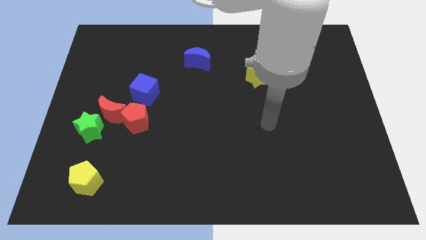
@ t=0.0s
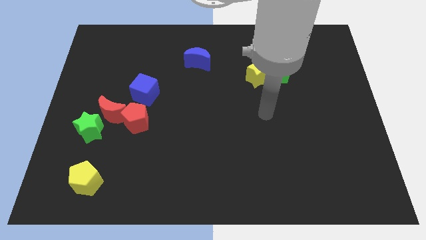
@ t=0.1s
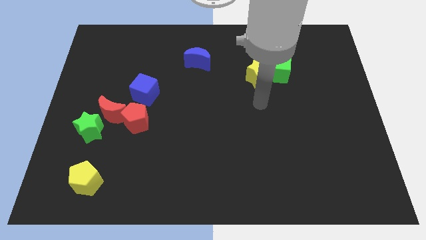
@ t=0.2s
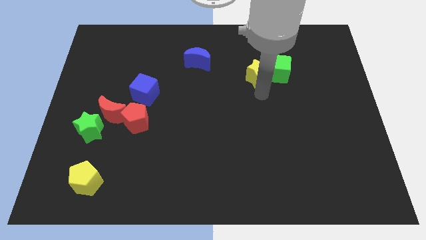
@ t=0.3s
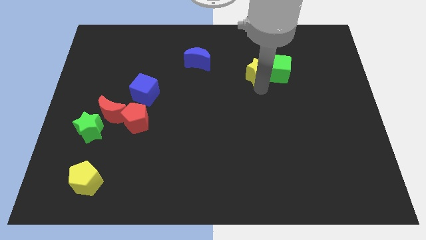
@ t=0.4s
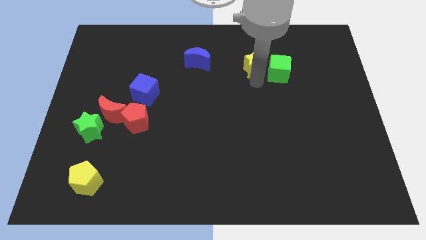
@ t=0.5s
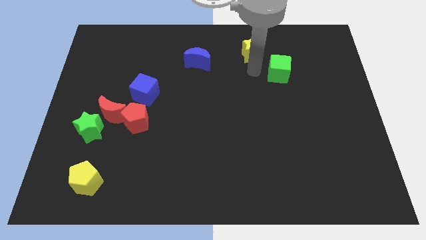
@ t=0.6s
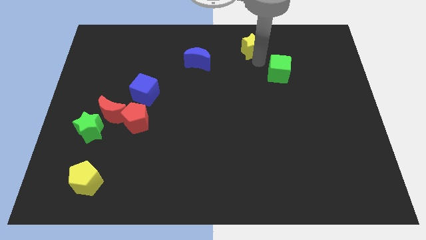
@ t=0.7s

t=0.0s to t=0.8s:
move the green cube away from the yellow star

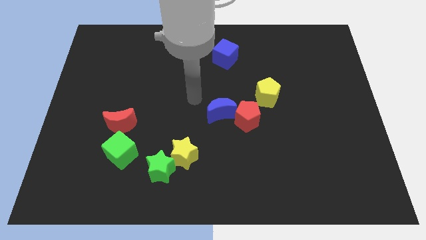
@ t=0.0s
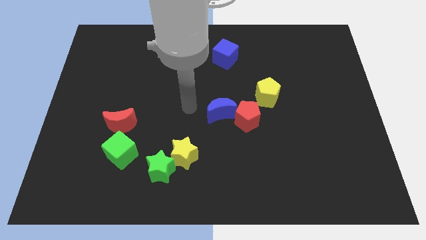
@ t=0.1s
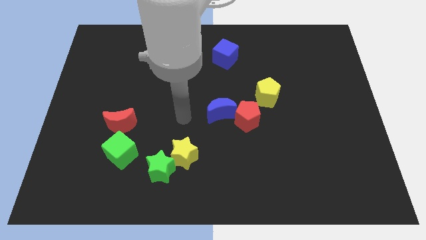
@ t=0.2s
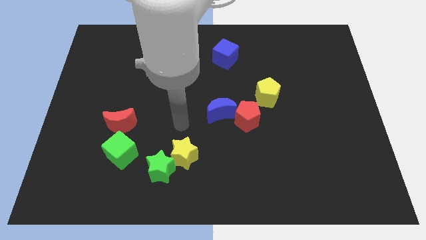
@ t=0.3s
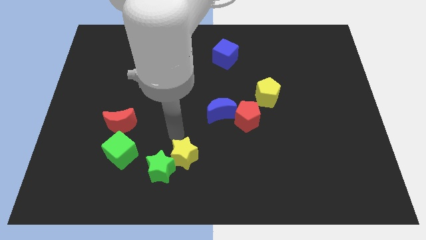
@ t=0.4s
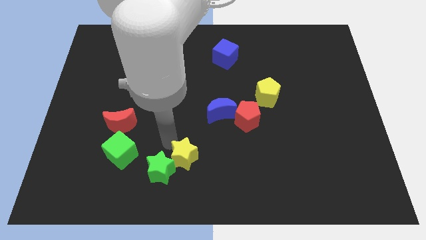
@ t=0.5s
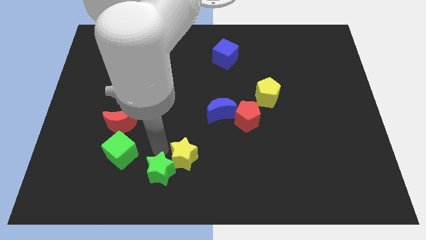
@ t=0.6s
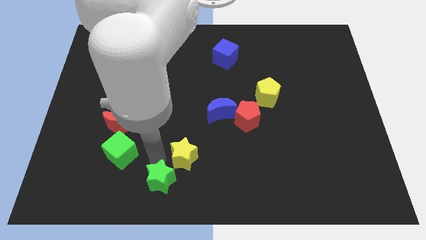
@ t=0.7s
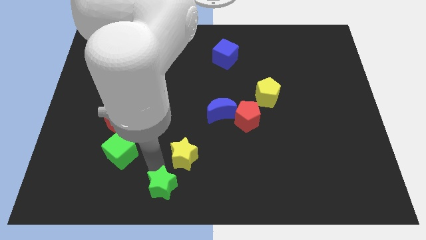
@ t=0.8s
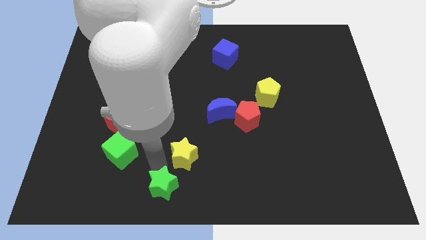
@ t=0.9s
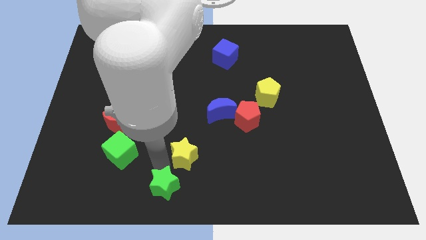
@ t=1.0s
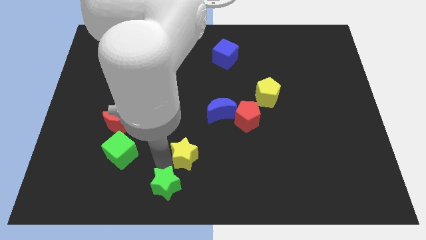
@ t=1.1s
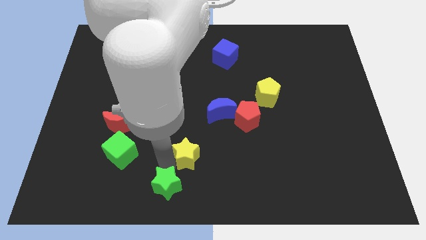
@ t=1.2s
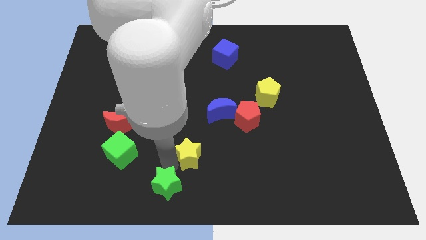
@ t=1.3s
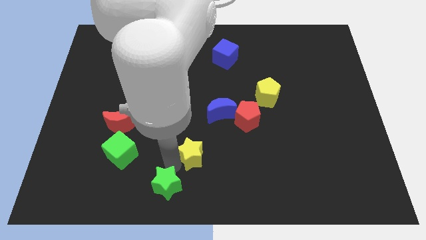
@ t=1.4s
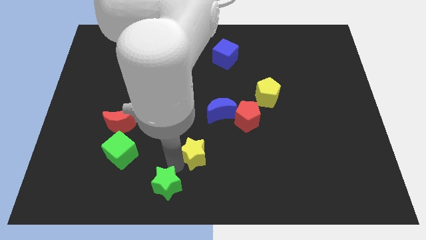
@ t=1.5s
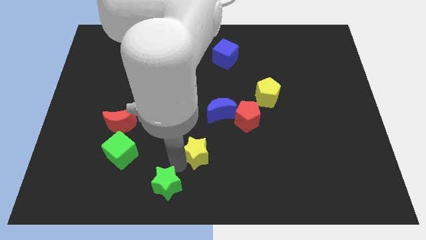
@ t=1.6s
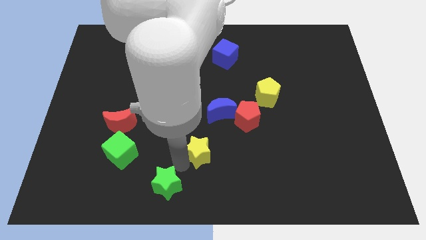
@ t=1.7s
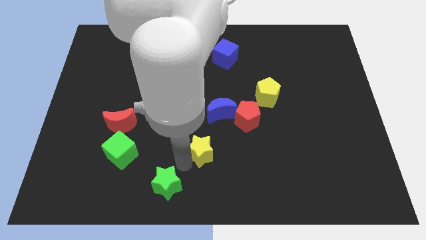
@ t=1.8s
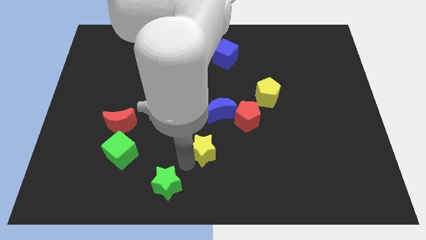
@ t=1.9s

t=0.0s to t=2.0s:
separate the yellow star from the green star

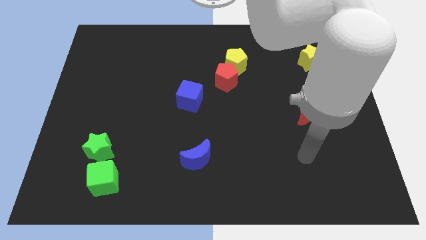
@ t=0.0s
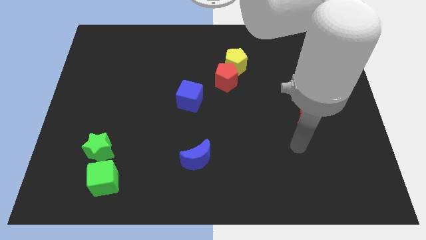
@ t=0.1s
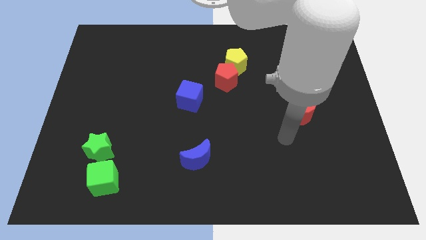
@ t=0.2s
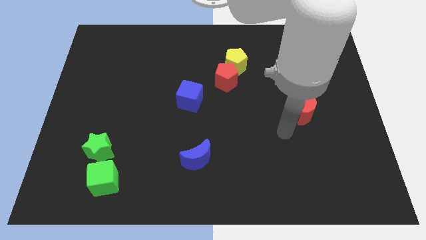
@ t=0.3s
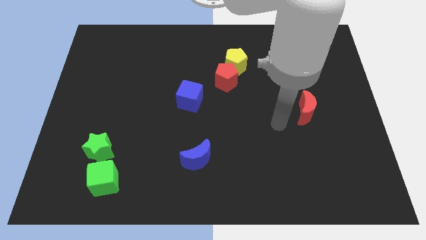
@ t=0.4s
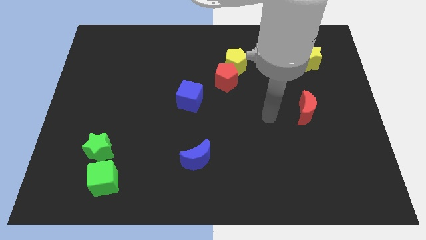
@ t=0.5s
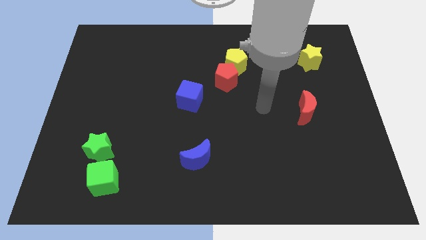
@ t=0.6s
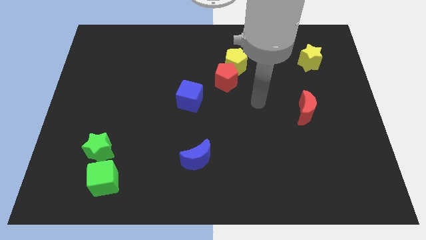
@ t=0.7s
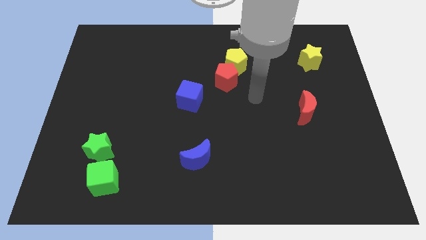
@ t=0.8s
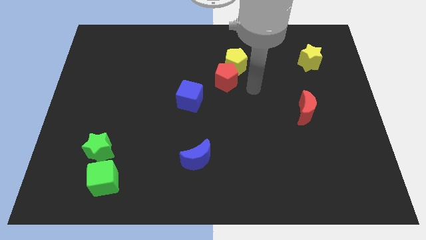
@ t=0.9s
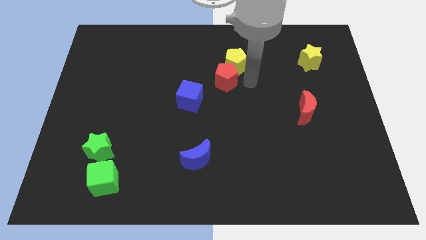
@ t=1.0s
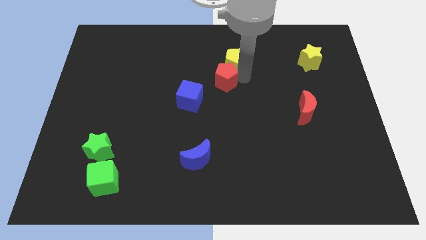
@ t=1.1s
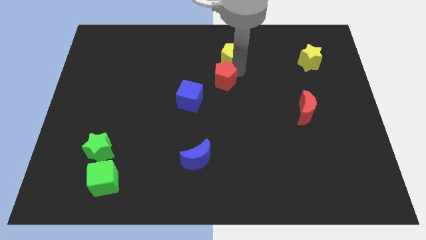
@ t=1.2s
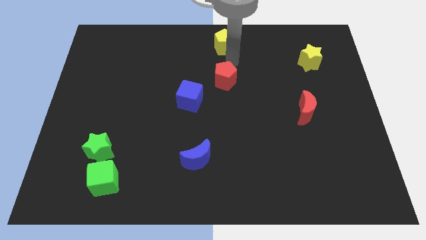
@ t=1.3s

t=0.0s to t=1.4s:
pull the red pentagon apart from the yellow pentagon

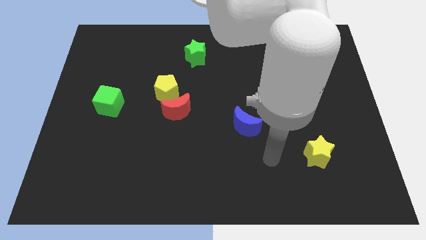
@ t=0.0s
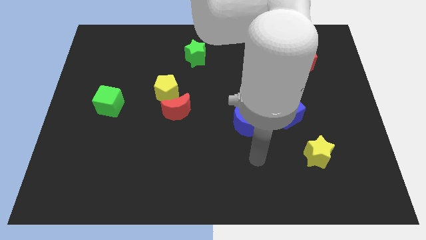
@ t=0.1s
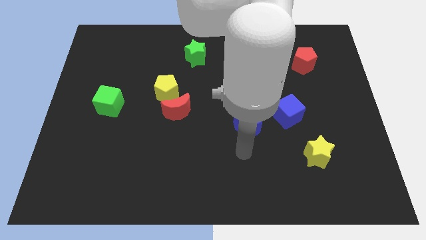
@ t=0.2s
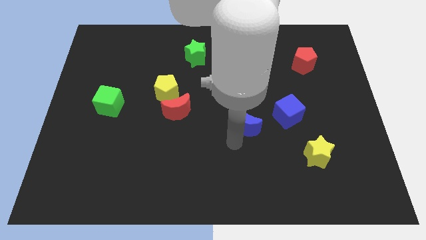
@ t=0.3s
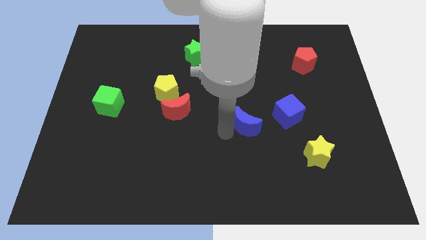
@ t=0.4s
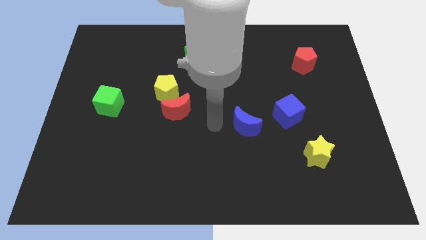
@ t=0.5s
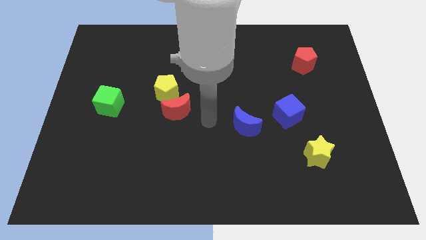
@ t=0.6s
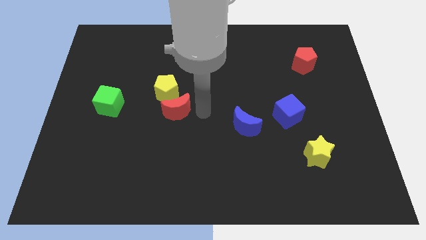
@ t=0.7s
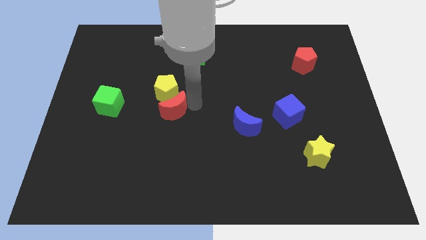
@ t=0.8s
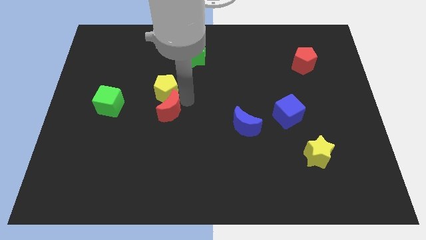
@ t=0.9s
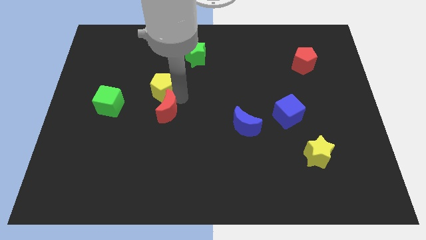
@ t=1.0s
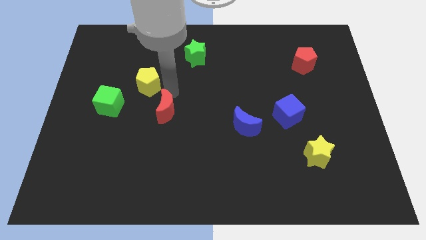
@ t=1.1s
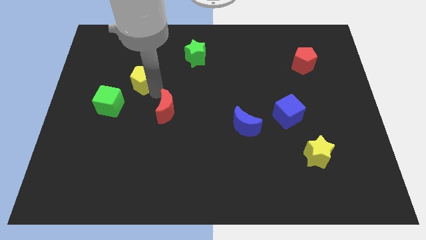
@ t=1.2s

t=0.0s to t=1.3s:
pull the red moon apart from the yellow pentagon

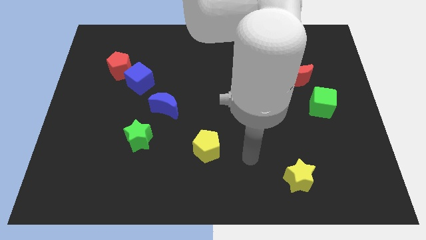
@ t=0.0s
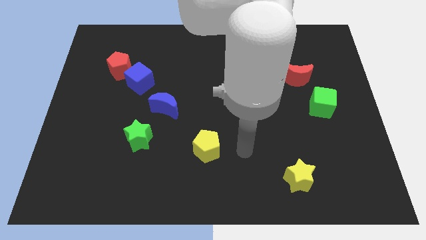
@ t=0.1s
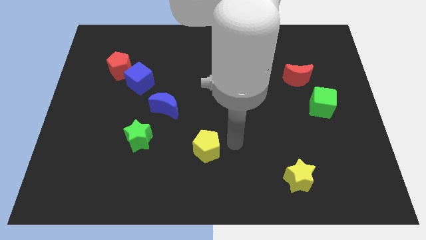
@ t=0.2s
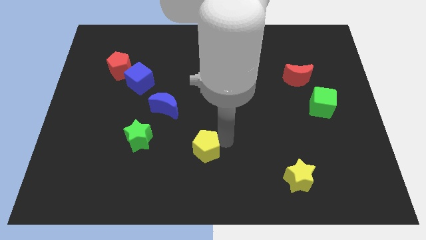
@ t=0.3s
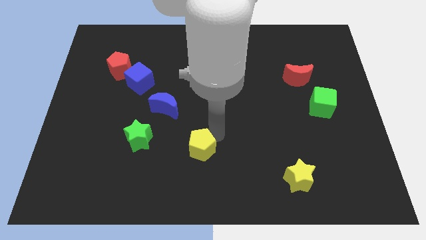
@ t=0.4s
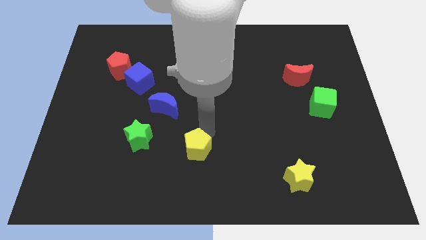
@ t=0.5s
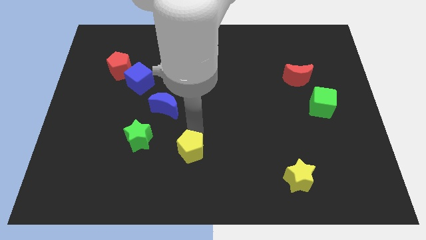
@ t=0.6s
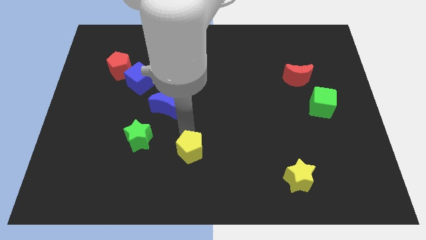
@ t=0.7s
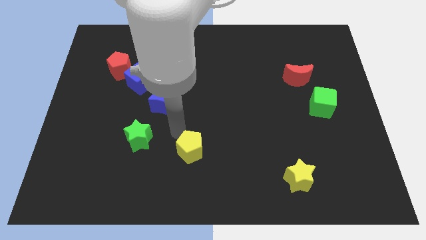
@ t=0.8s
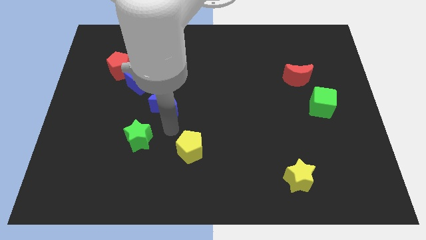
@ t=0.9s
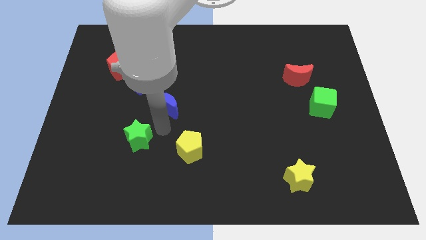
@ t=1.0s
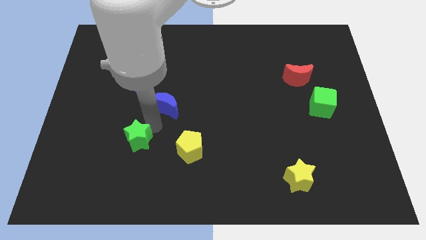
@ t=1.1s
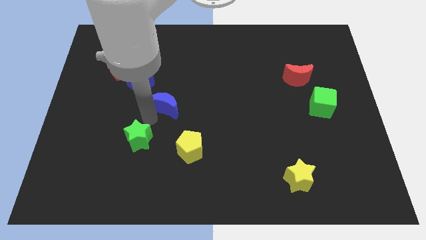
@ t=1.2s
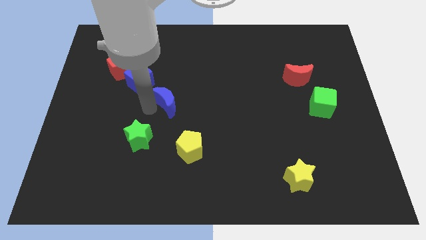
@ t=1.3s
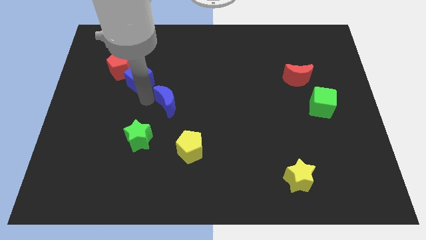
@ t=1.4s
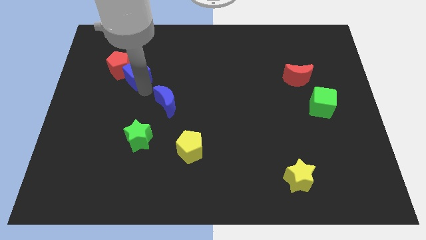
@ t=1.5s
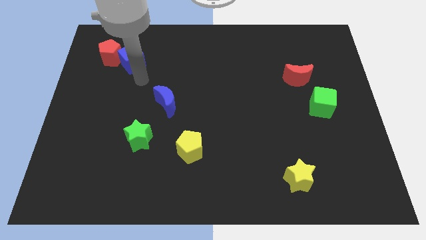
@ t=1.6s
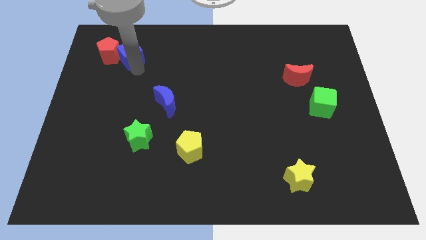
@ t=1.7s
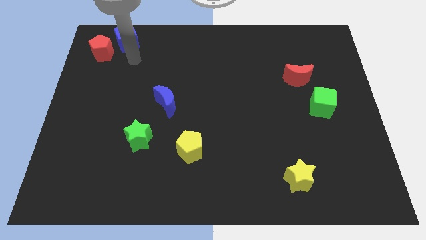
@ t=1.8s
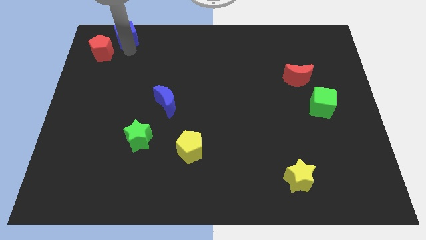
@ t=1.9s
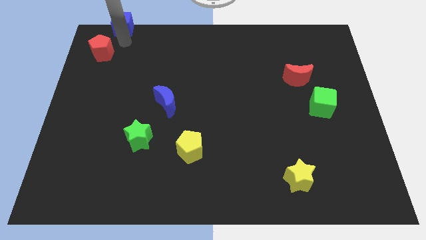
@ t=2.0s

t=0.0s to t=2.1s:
separate the red pentagon from the blue cube

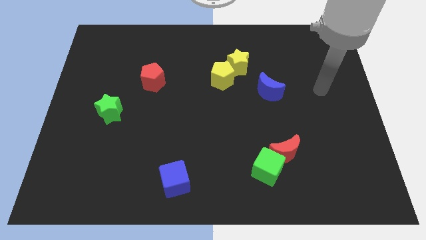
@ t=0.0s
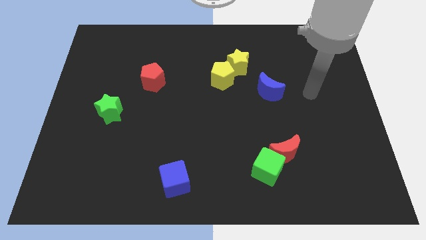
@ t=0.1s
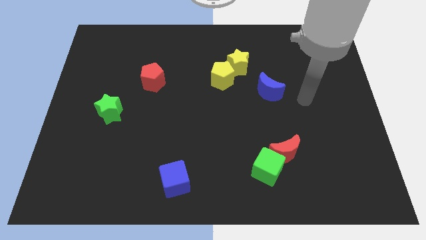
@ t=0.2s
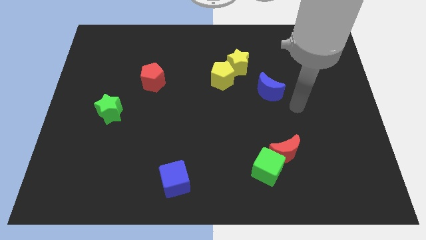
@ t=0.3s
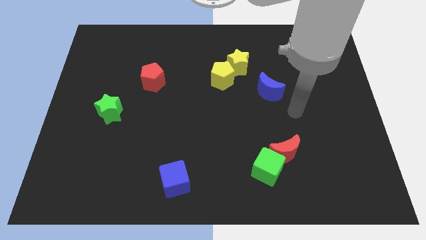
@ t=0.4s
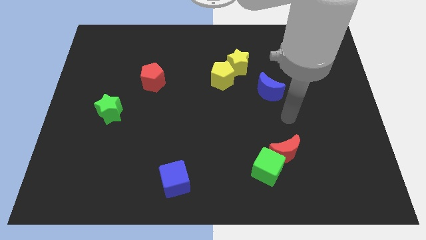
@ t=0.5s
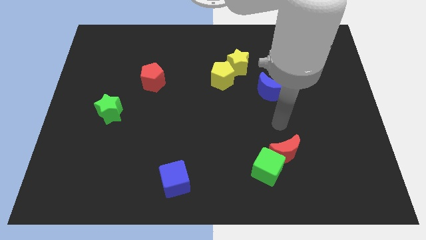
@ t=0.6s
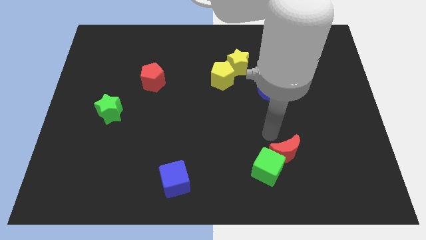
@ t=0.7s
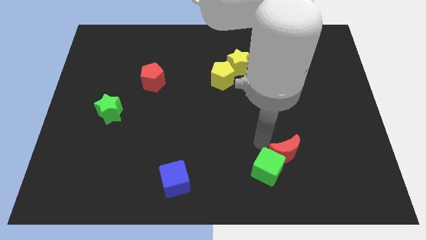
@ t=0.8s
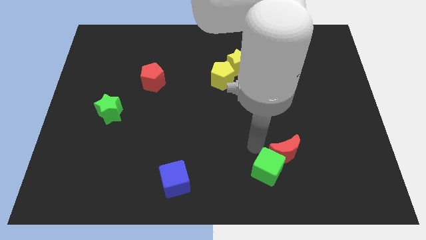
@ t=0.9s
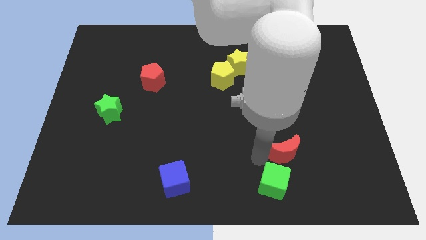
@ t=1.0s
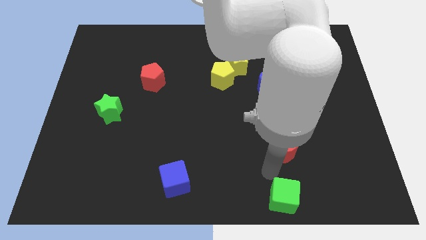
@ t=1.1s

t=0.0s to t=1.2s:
pull the red moon apart from the green cube

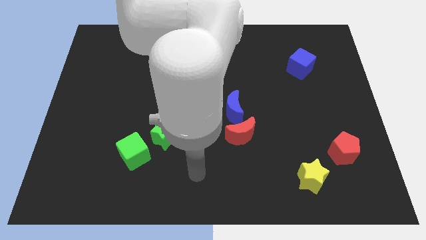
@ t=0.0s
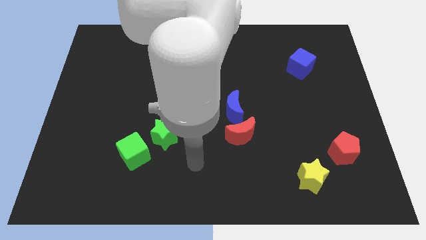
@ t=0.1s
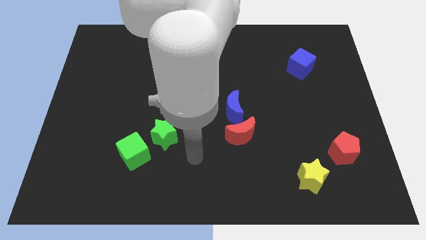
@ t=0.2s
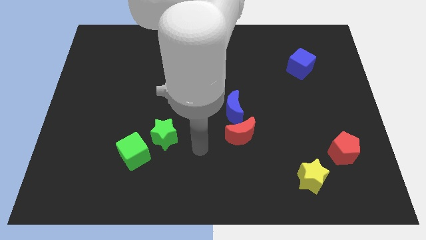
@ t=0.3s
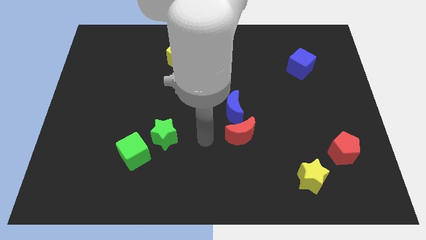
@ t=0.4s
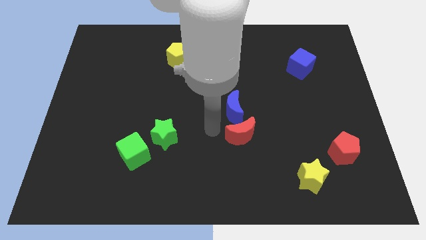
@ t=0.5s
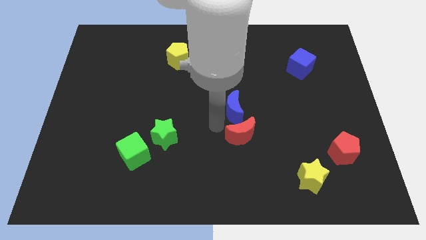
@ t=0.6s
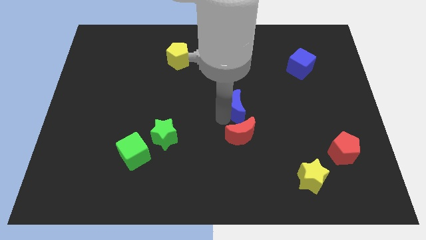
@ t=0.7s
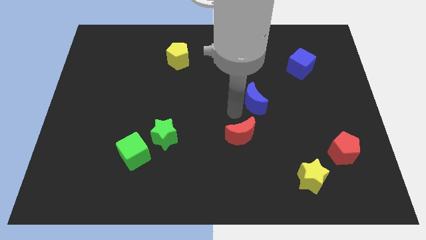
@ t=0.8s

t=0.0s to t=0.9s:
pull the red moon apart from the blue moon
